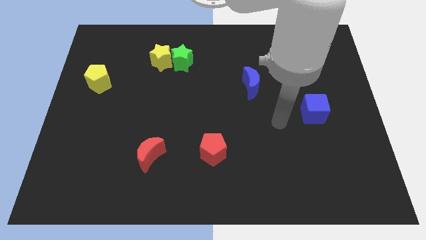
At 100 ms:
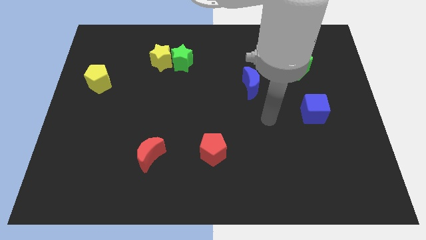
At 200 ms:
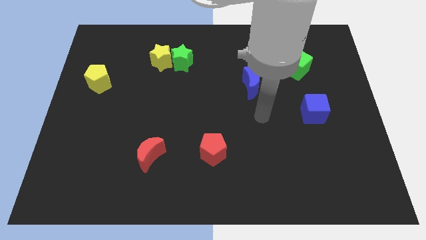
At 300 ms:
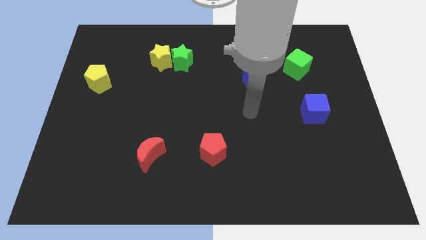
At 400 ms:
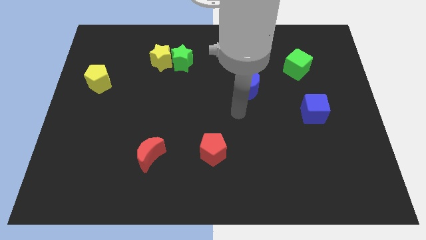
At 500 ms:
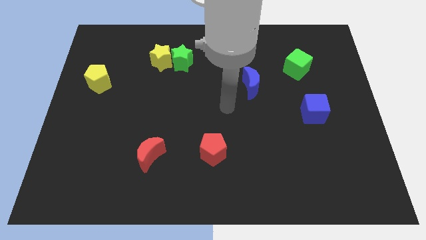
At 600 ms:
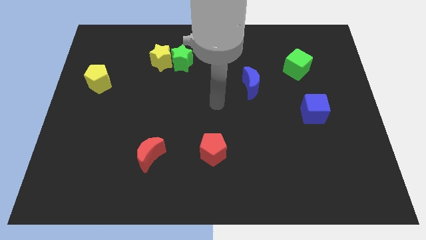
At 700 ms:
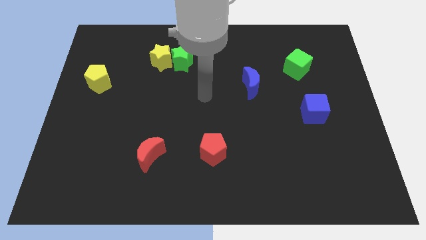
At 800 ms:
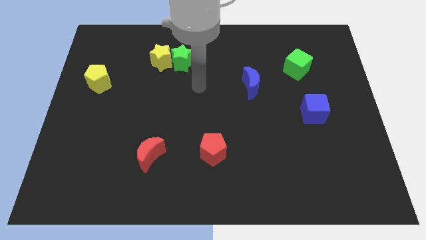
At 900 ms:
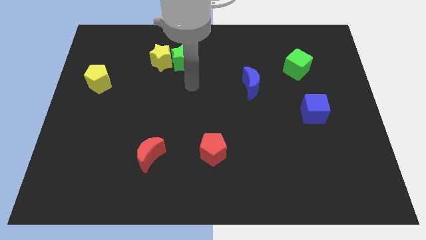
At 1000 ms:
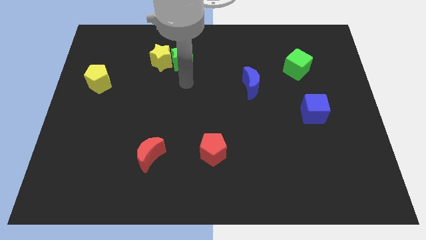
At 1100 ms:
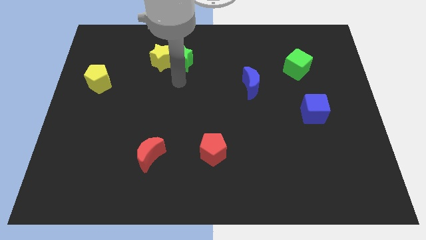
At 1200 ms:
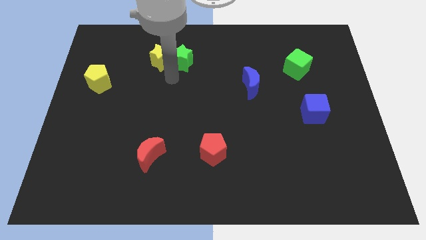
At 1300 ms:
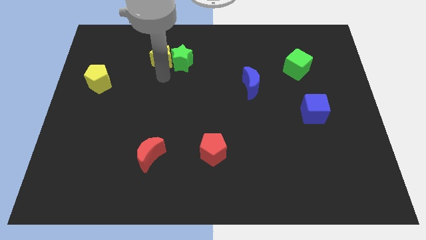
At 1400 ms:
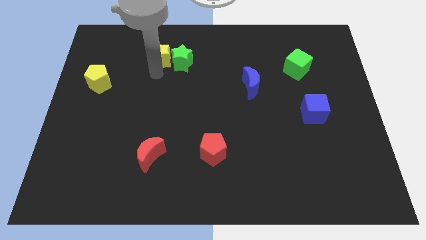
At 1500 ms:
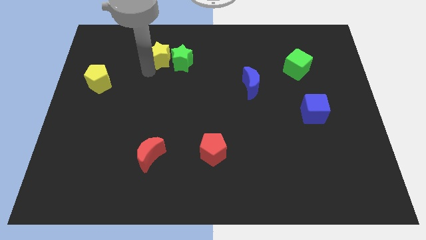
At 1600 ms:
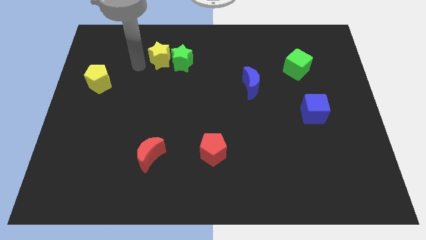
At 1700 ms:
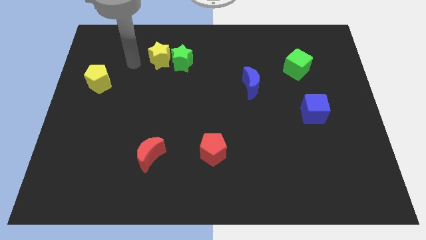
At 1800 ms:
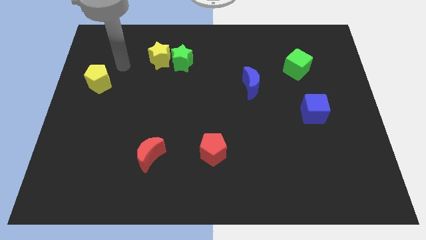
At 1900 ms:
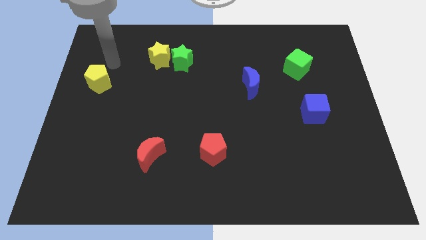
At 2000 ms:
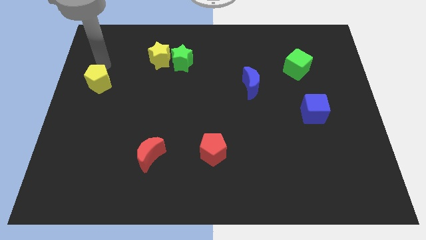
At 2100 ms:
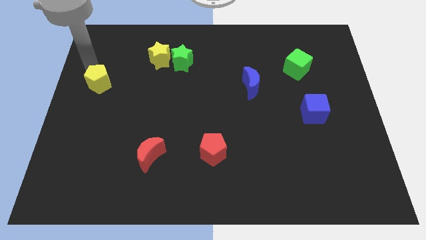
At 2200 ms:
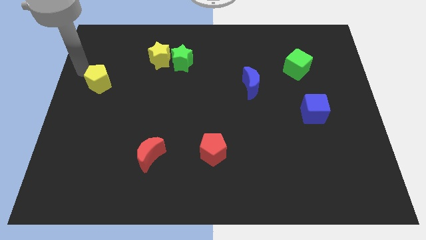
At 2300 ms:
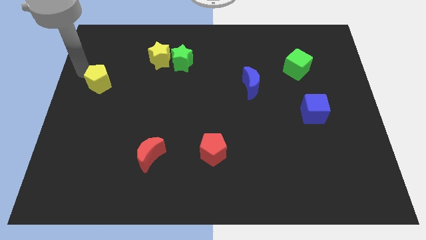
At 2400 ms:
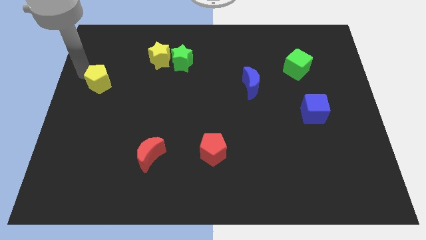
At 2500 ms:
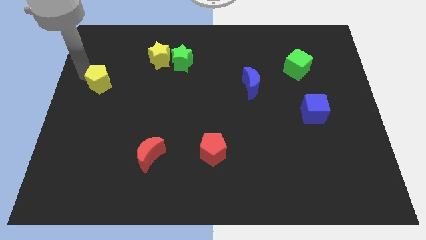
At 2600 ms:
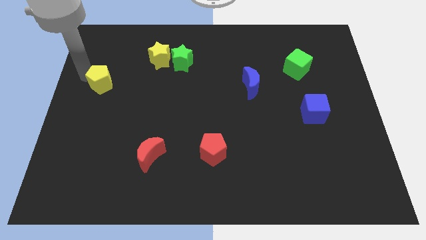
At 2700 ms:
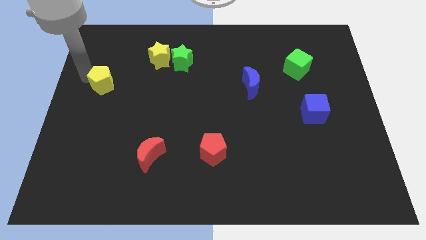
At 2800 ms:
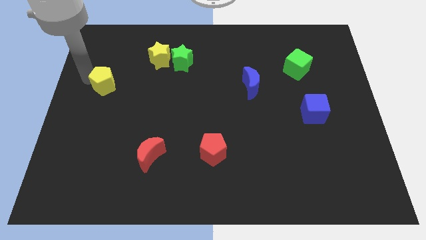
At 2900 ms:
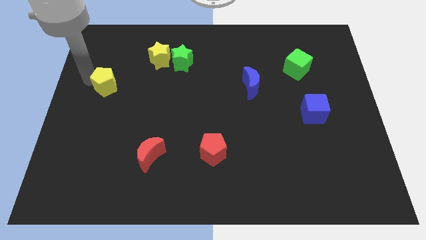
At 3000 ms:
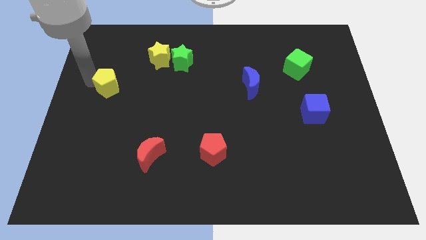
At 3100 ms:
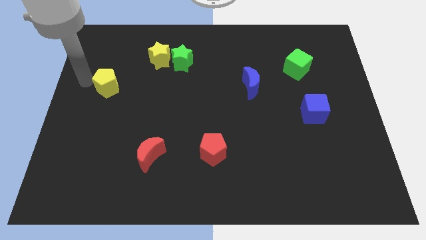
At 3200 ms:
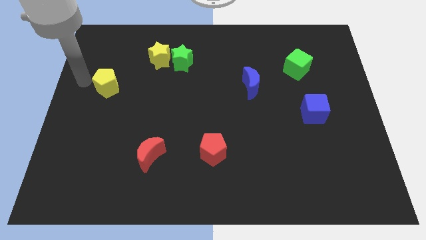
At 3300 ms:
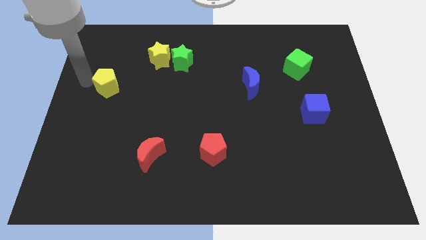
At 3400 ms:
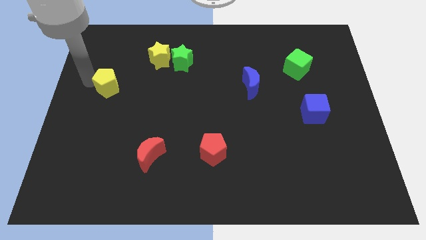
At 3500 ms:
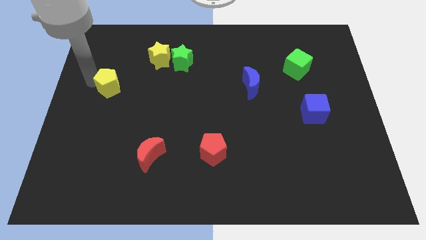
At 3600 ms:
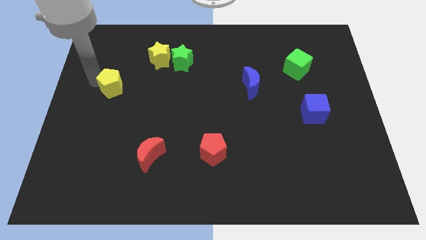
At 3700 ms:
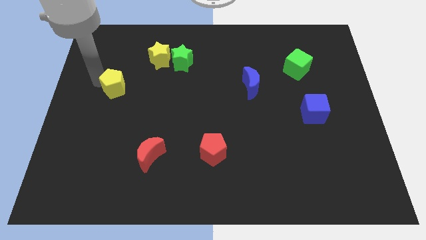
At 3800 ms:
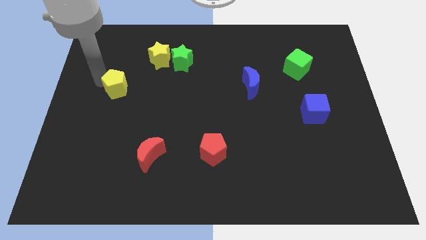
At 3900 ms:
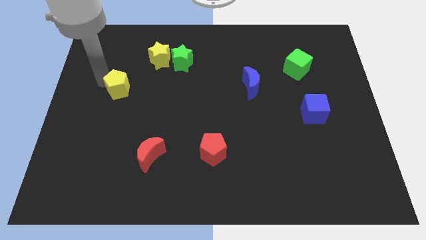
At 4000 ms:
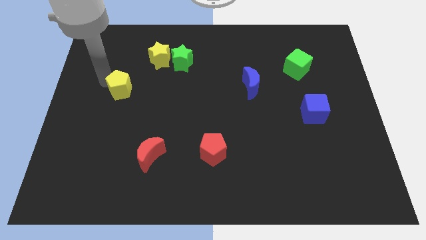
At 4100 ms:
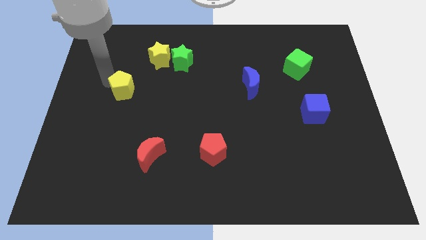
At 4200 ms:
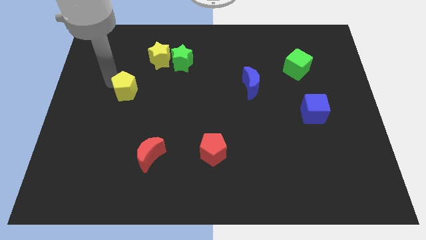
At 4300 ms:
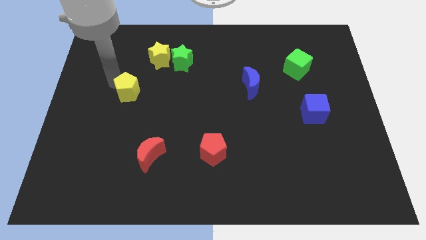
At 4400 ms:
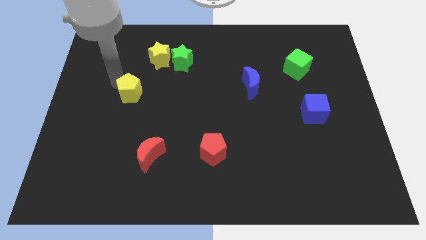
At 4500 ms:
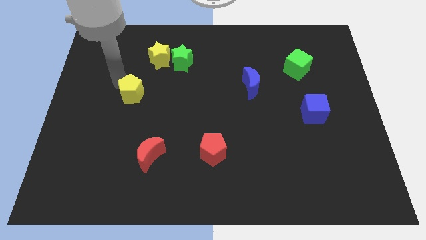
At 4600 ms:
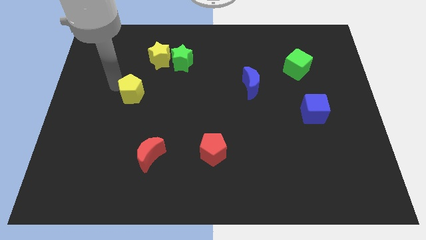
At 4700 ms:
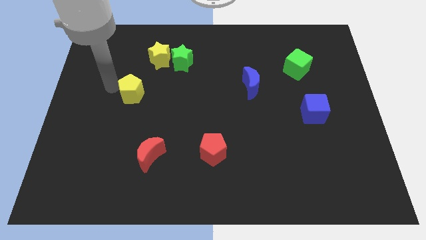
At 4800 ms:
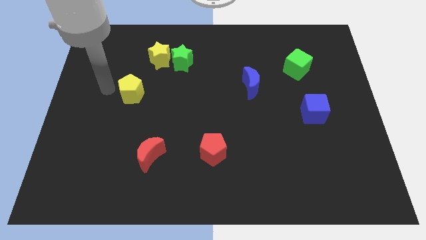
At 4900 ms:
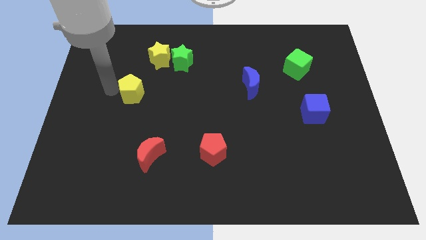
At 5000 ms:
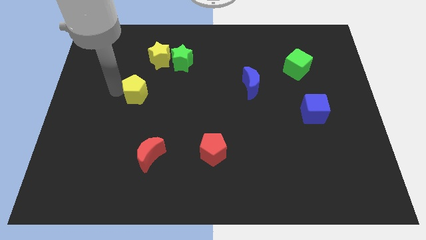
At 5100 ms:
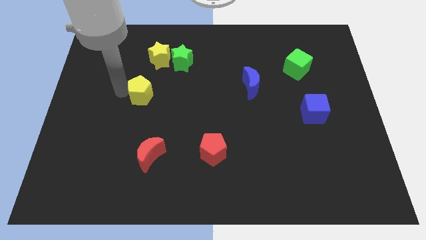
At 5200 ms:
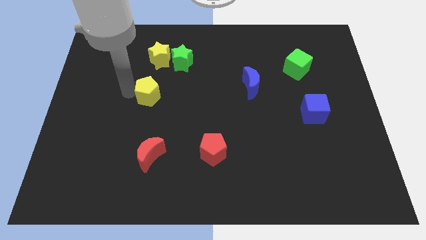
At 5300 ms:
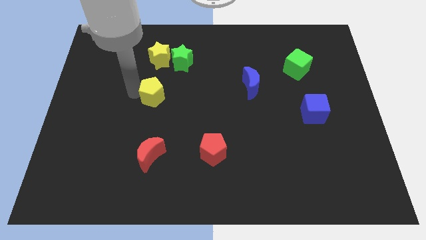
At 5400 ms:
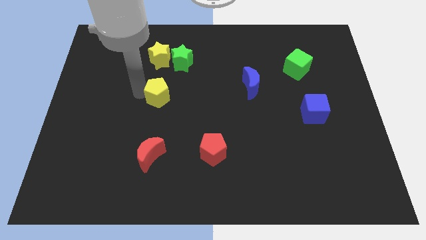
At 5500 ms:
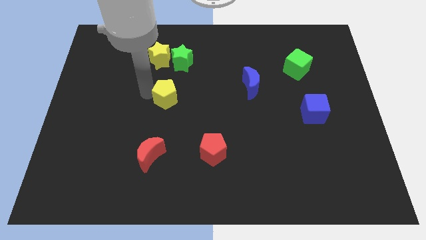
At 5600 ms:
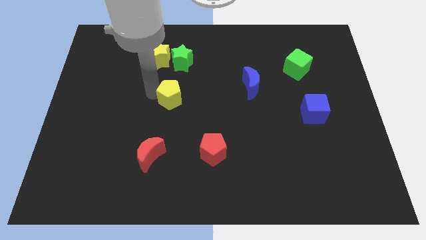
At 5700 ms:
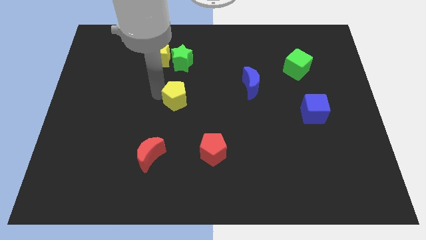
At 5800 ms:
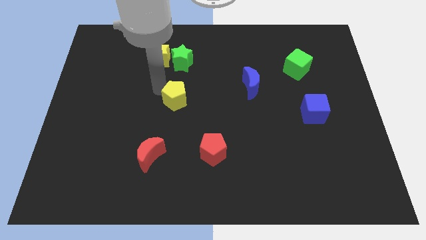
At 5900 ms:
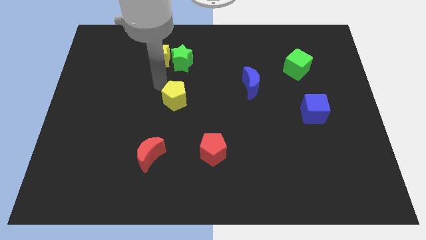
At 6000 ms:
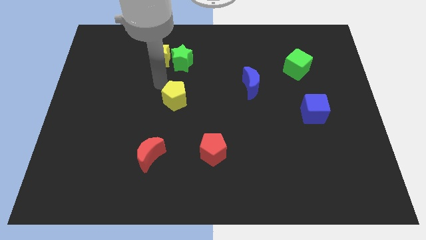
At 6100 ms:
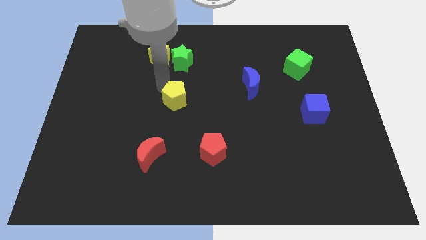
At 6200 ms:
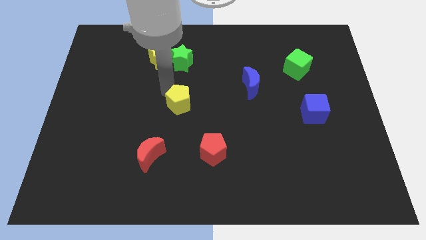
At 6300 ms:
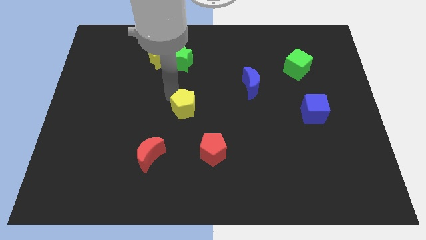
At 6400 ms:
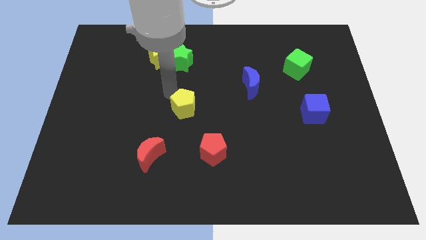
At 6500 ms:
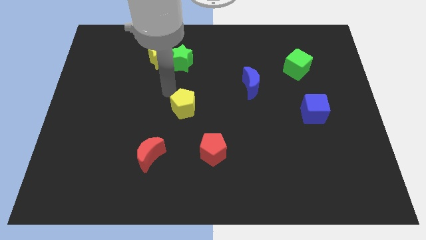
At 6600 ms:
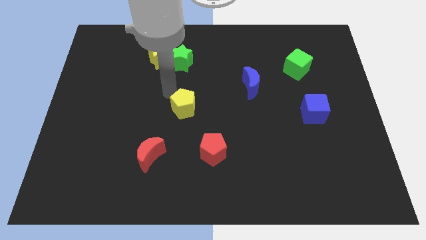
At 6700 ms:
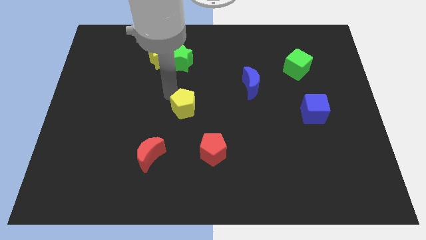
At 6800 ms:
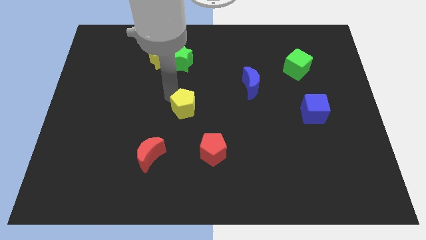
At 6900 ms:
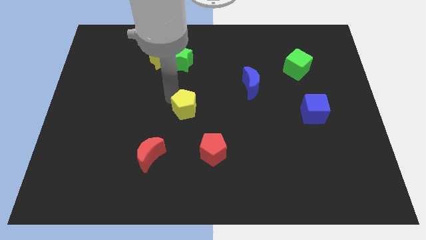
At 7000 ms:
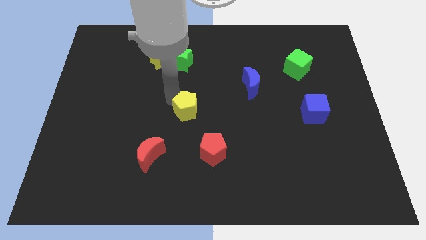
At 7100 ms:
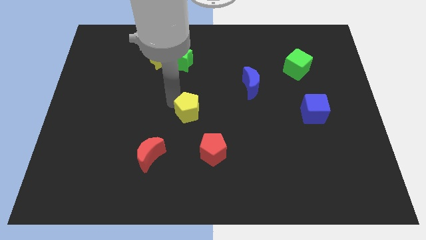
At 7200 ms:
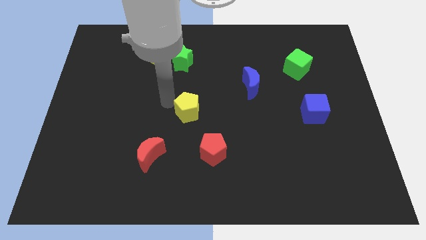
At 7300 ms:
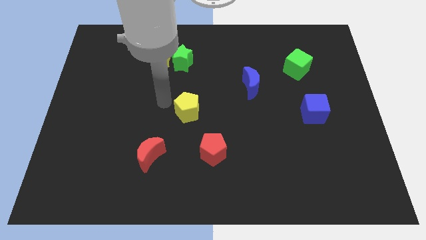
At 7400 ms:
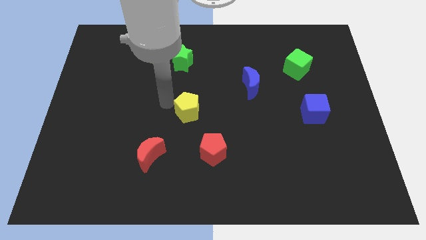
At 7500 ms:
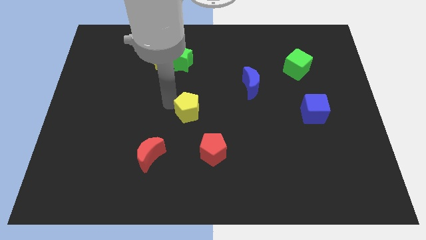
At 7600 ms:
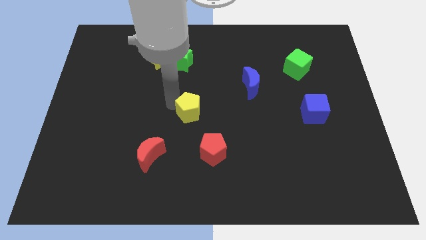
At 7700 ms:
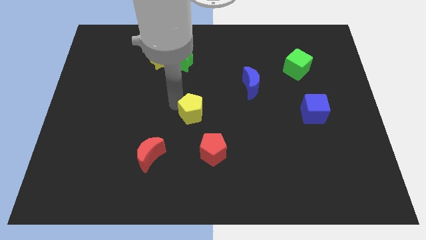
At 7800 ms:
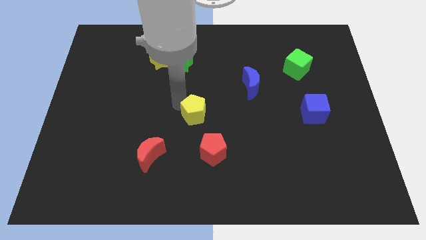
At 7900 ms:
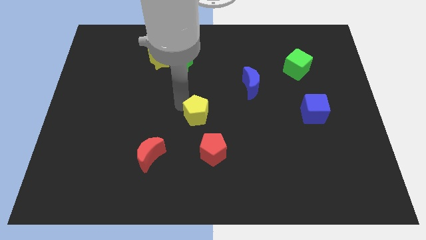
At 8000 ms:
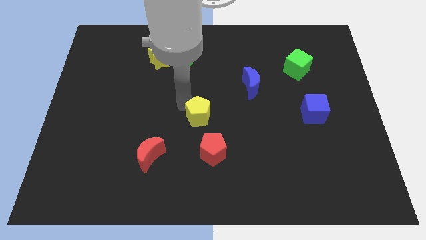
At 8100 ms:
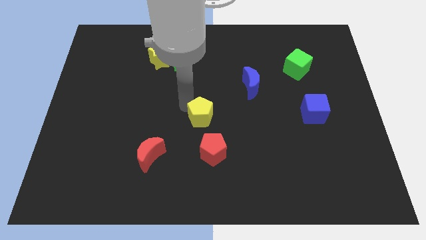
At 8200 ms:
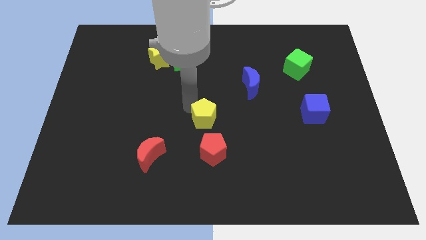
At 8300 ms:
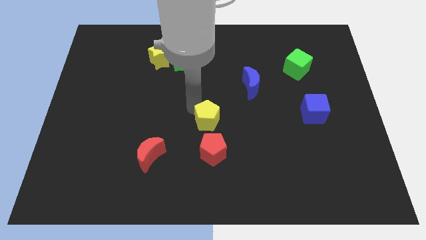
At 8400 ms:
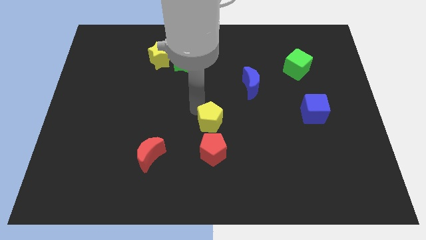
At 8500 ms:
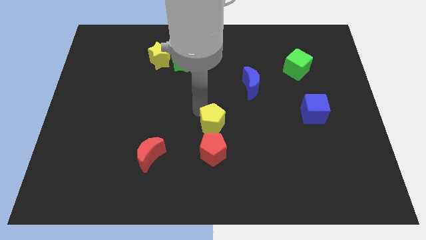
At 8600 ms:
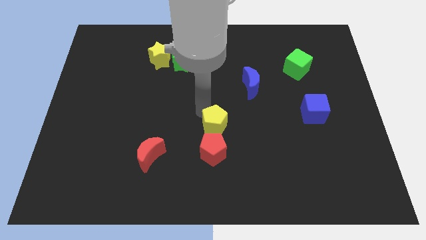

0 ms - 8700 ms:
push the yellow pentagon to the top right side of the red pentagon
